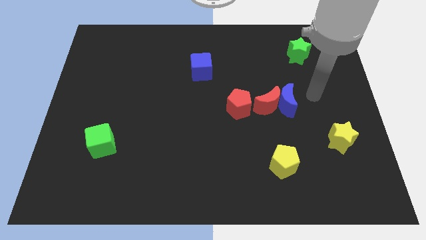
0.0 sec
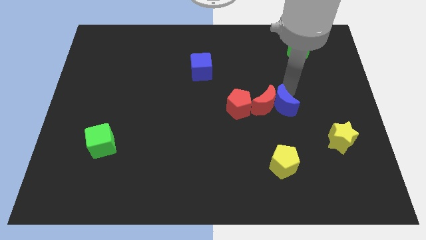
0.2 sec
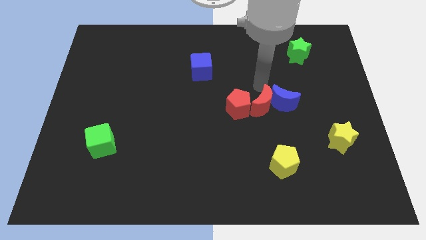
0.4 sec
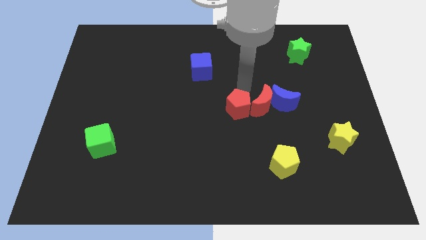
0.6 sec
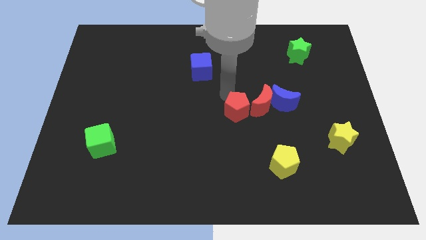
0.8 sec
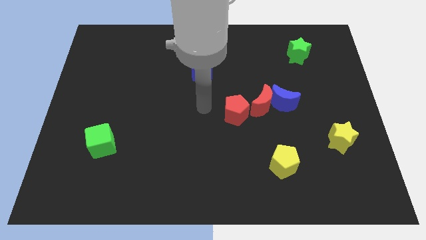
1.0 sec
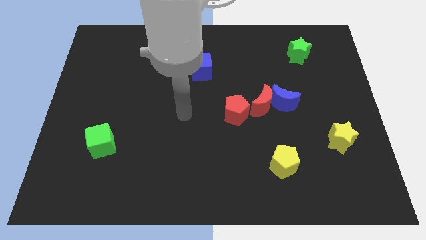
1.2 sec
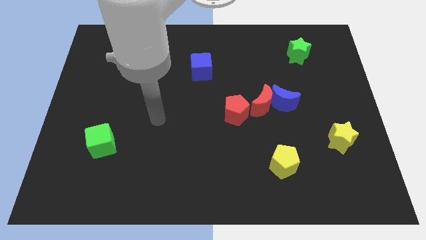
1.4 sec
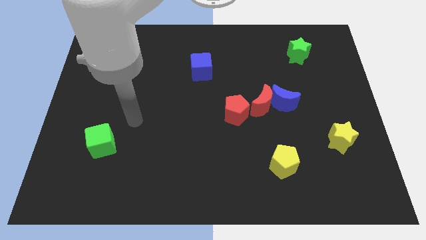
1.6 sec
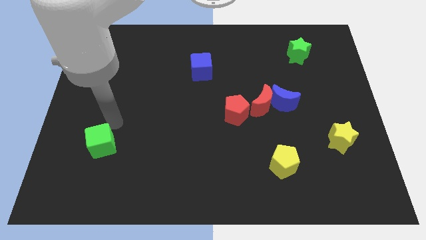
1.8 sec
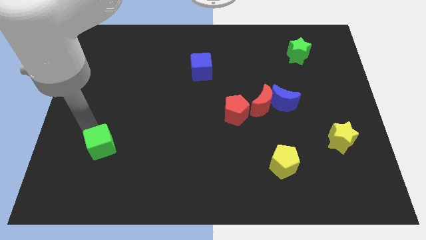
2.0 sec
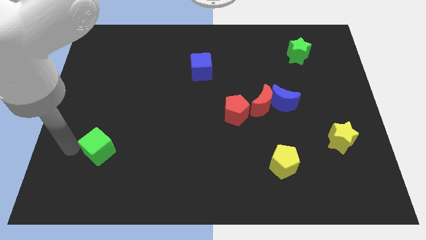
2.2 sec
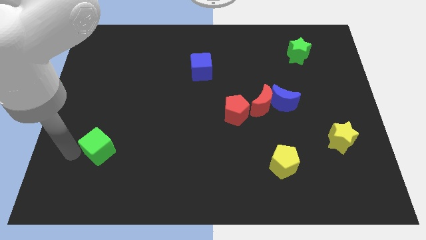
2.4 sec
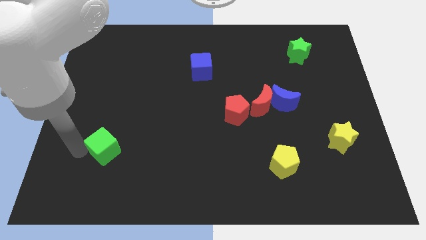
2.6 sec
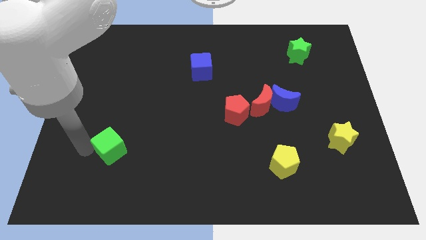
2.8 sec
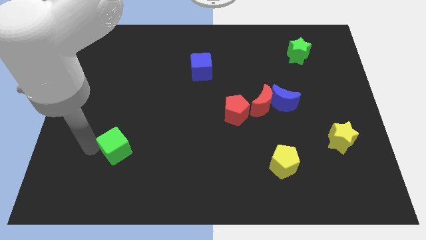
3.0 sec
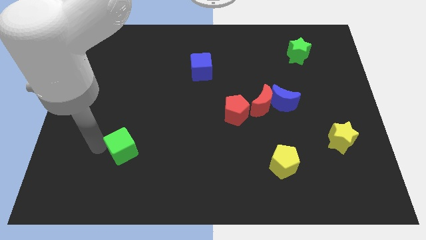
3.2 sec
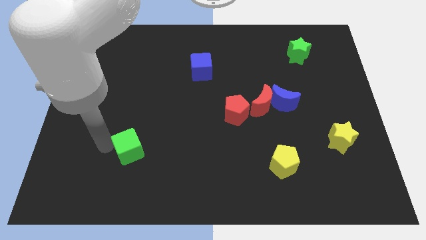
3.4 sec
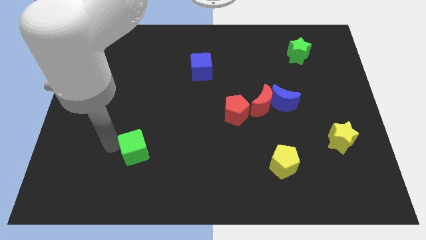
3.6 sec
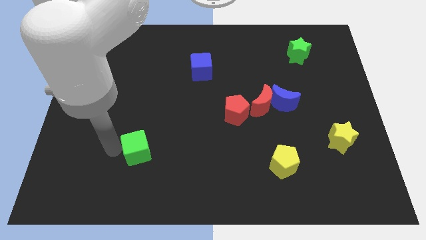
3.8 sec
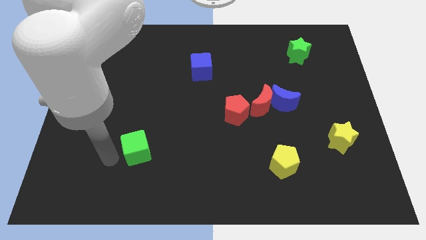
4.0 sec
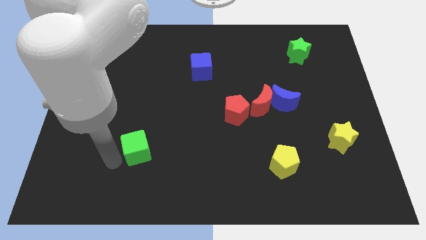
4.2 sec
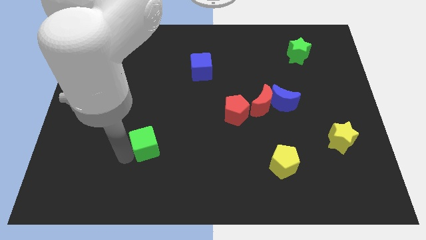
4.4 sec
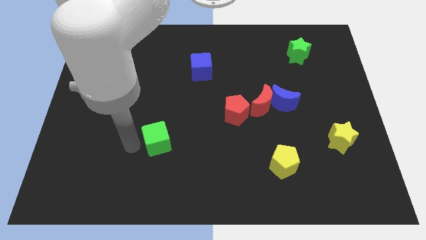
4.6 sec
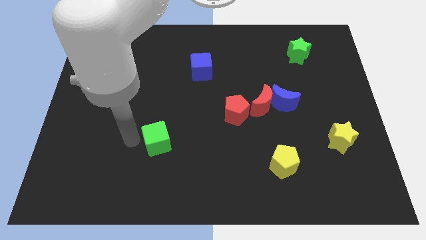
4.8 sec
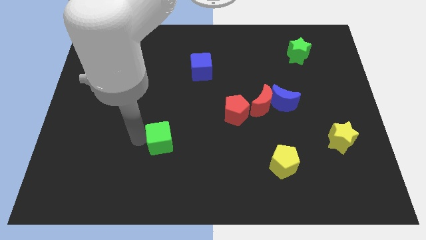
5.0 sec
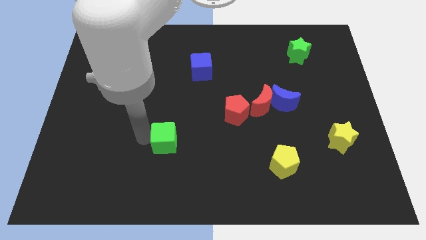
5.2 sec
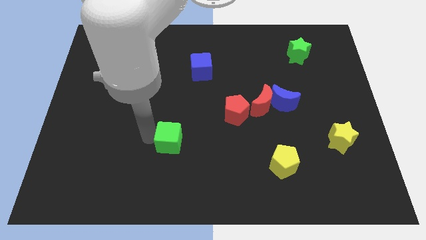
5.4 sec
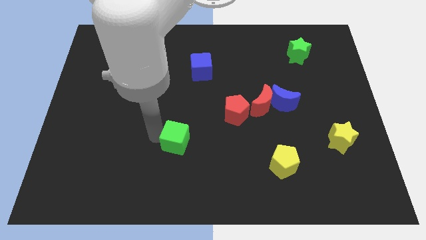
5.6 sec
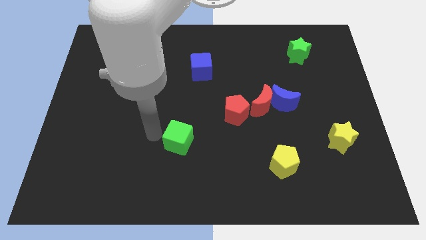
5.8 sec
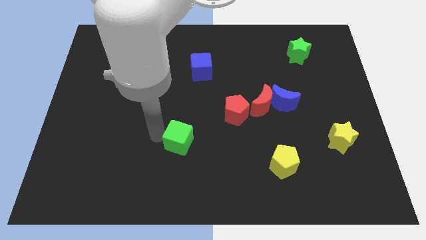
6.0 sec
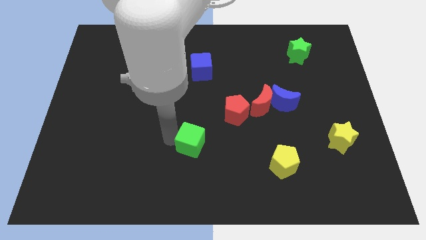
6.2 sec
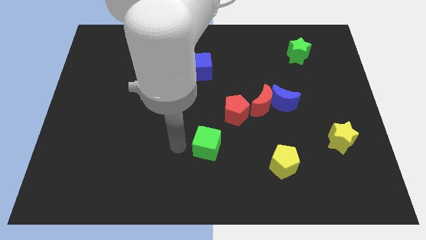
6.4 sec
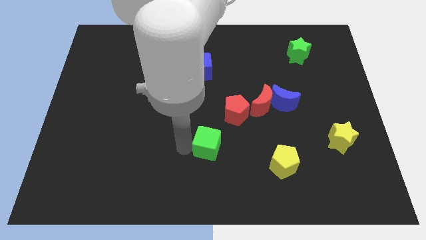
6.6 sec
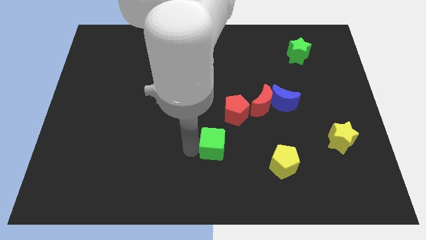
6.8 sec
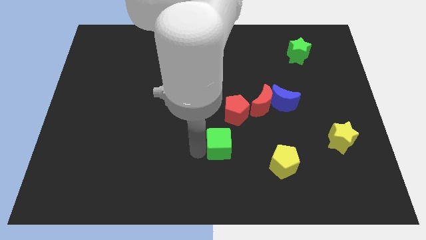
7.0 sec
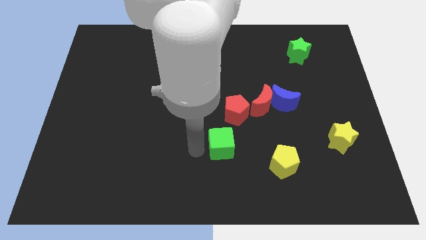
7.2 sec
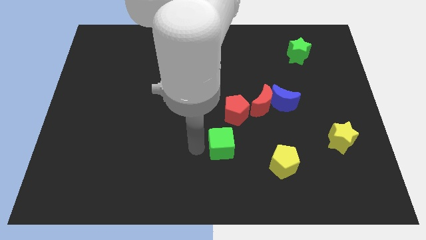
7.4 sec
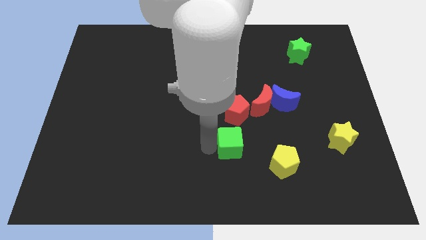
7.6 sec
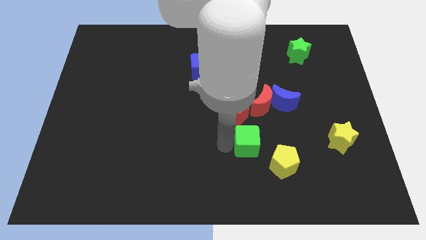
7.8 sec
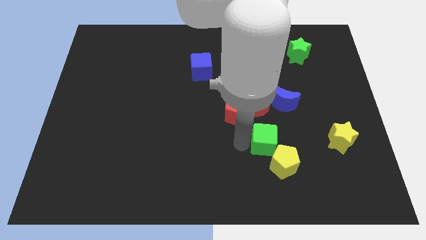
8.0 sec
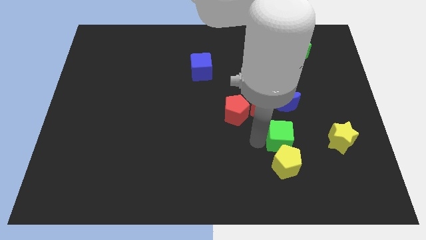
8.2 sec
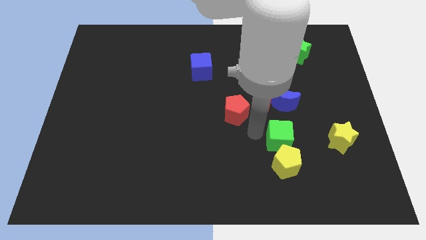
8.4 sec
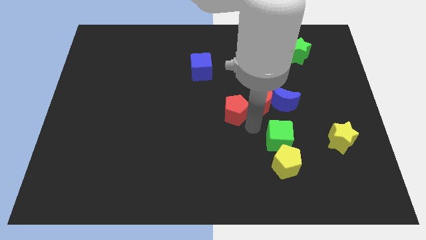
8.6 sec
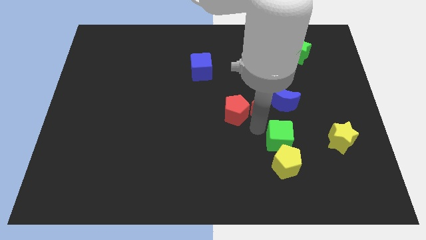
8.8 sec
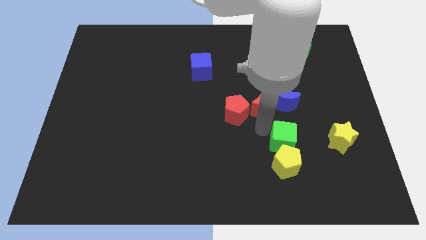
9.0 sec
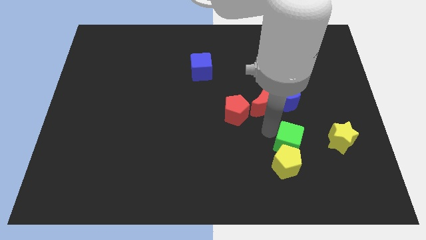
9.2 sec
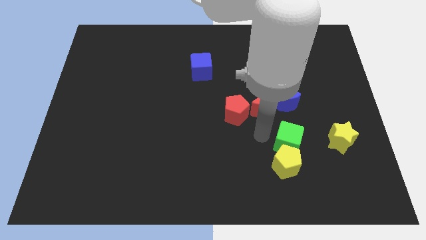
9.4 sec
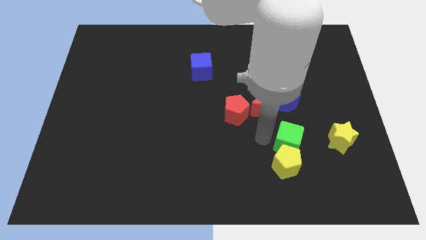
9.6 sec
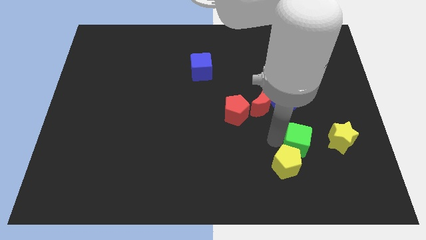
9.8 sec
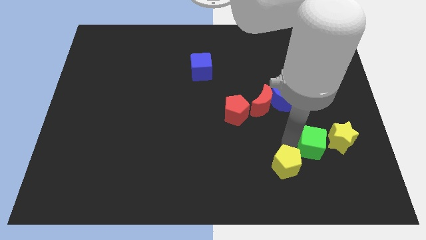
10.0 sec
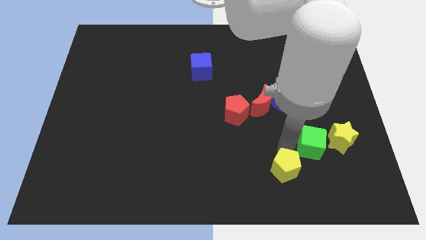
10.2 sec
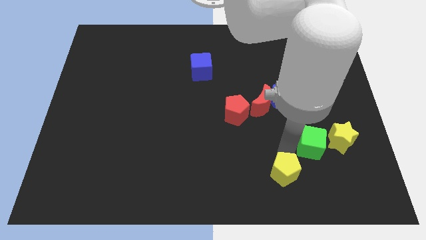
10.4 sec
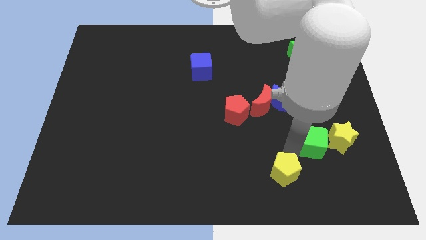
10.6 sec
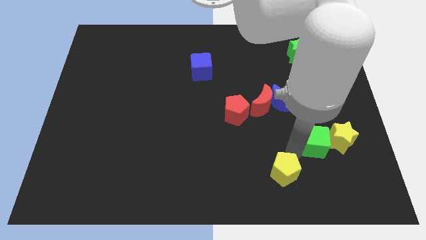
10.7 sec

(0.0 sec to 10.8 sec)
put the green cube towards the yellow star

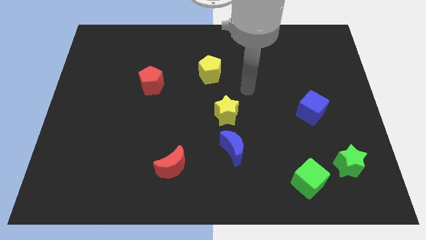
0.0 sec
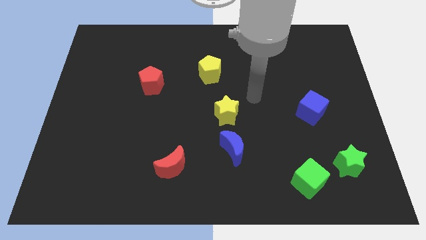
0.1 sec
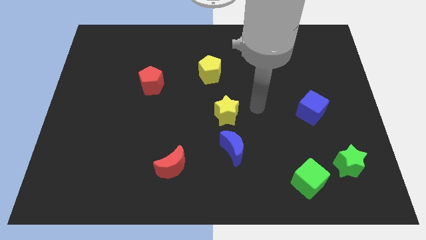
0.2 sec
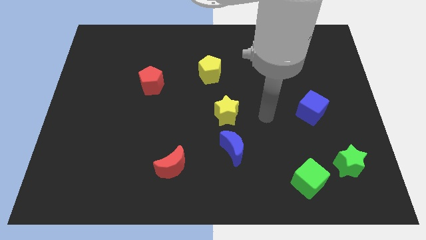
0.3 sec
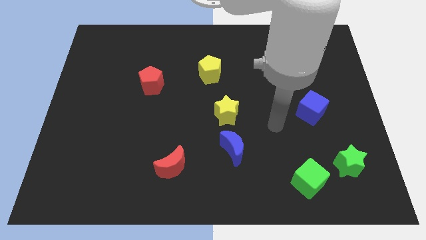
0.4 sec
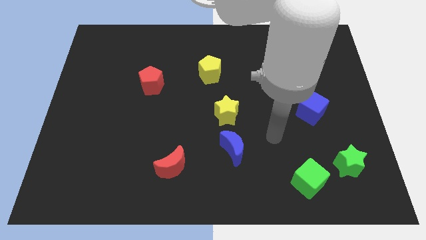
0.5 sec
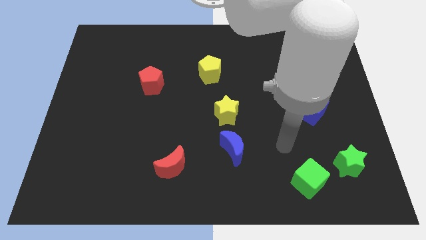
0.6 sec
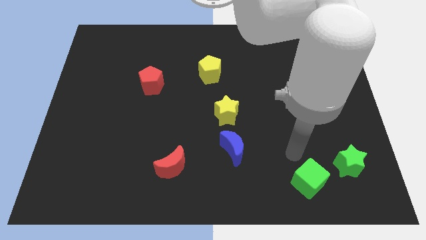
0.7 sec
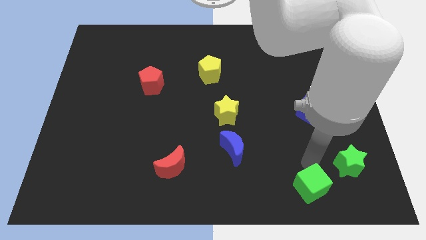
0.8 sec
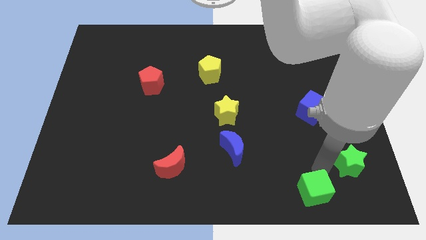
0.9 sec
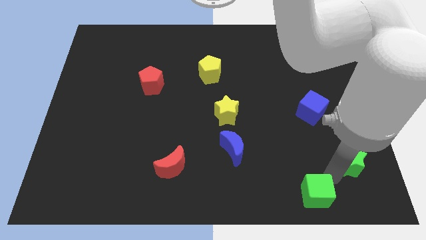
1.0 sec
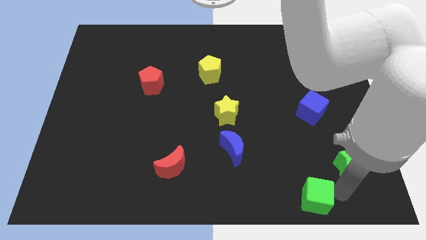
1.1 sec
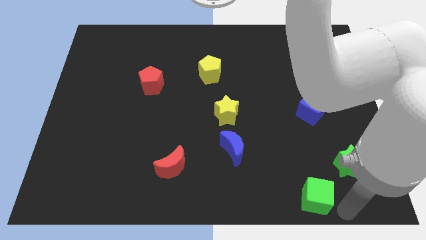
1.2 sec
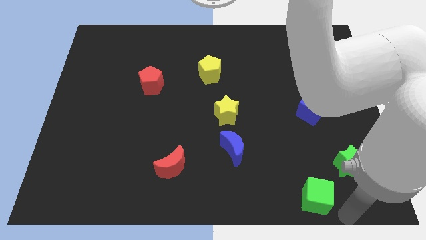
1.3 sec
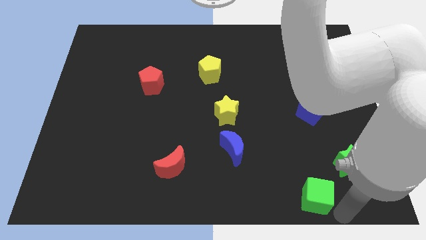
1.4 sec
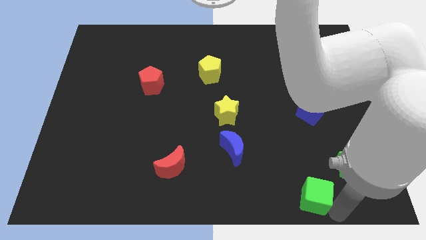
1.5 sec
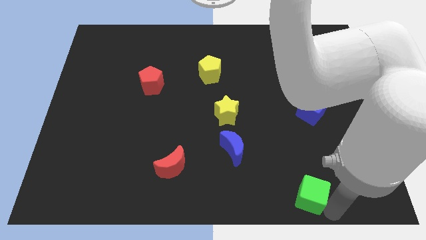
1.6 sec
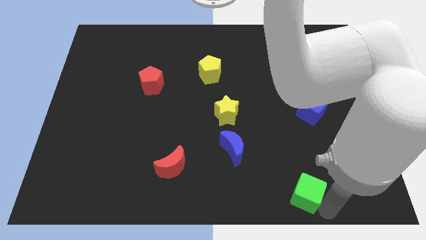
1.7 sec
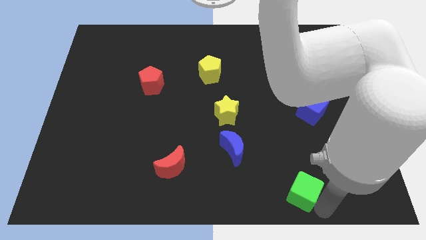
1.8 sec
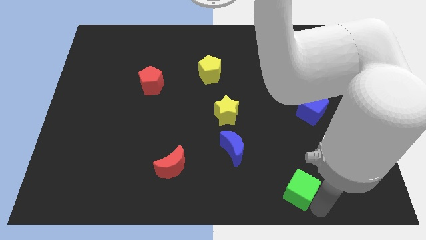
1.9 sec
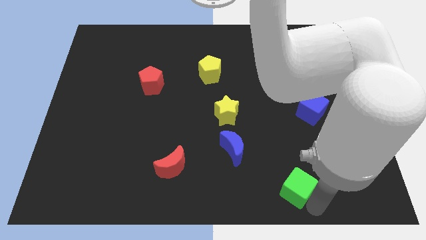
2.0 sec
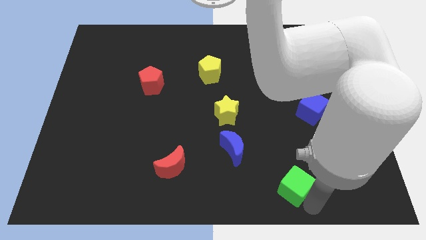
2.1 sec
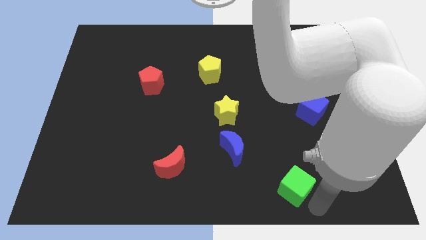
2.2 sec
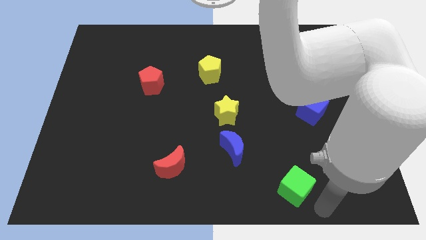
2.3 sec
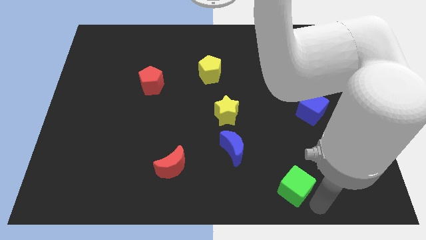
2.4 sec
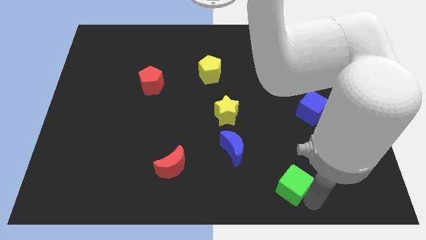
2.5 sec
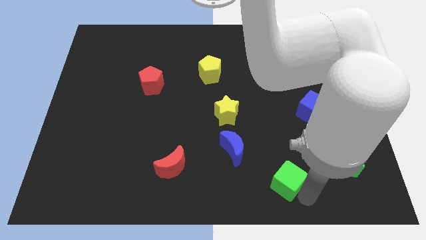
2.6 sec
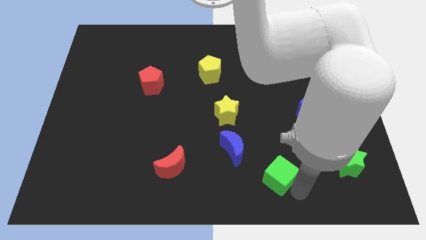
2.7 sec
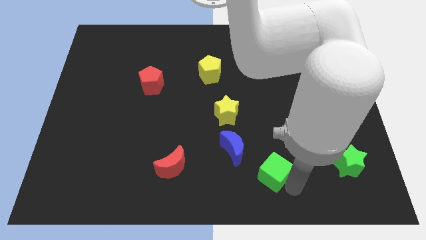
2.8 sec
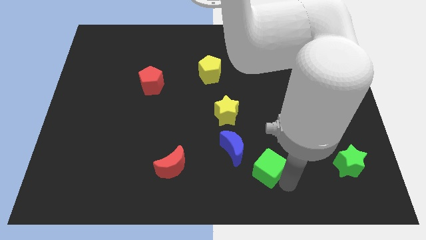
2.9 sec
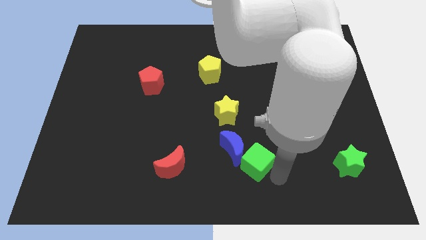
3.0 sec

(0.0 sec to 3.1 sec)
move the green cube towards the blue moon
